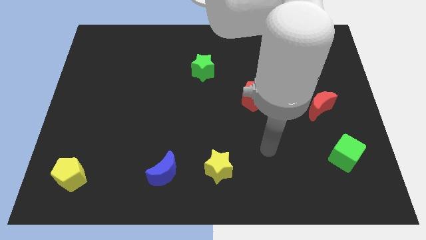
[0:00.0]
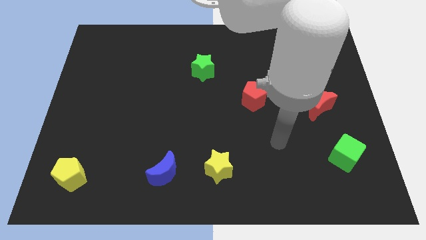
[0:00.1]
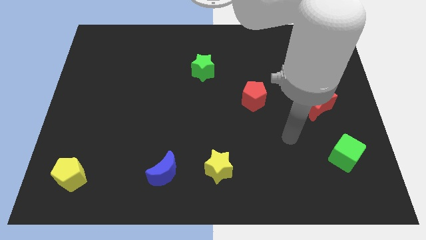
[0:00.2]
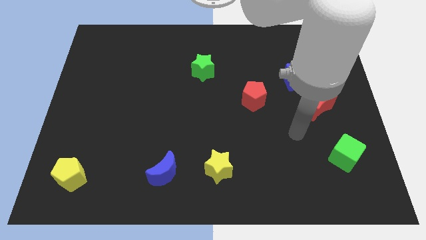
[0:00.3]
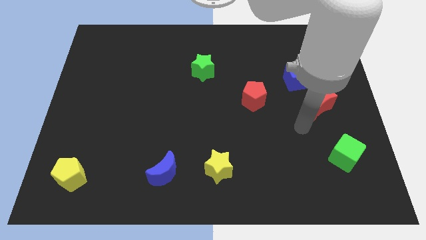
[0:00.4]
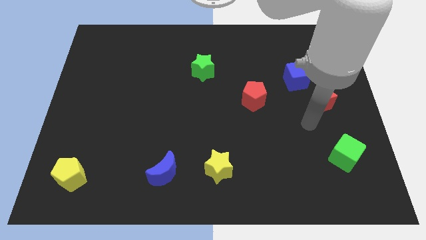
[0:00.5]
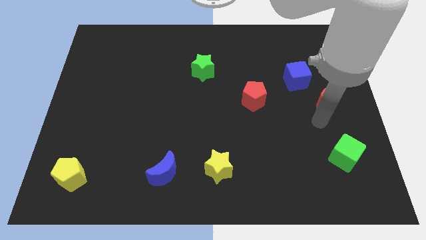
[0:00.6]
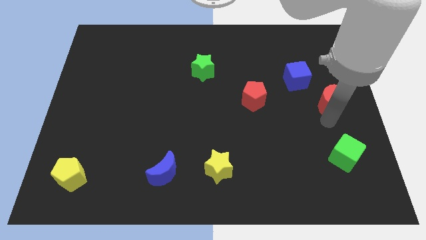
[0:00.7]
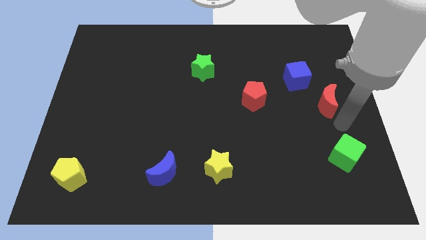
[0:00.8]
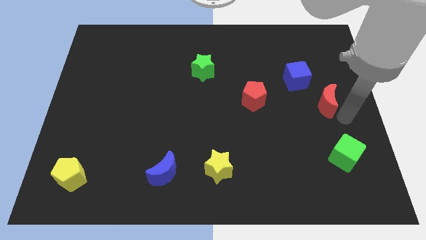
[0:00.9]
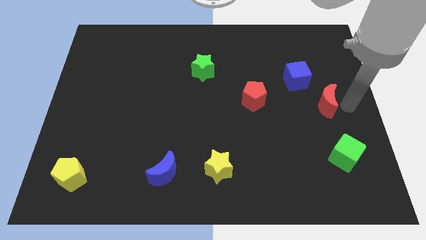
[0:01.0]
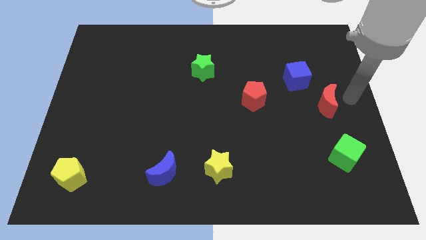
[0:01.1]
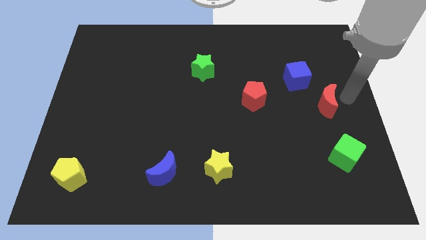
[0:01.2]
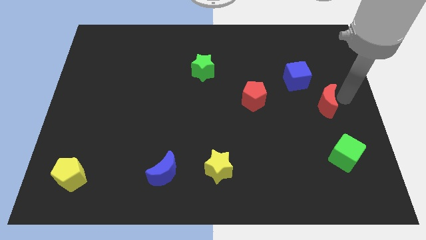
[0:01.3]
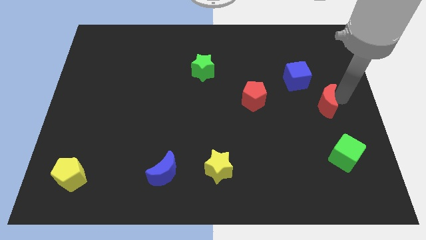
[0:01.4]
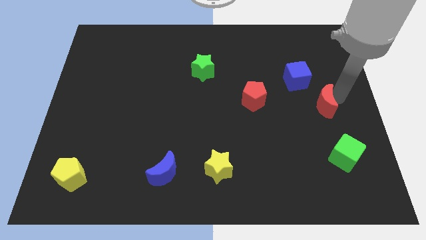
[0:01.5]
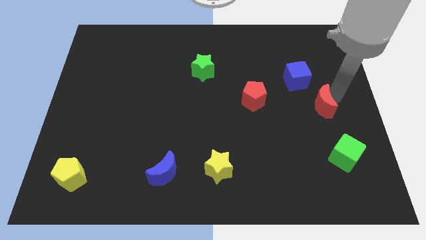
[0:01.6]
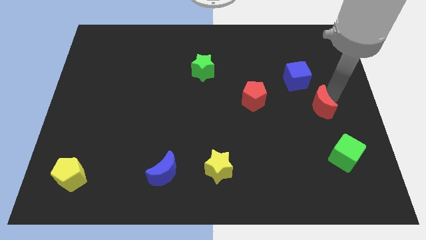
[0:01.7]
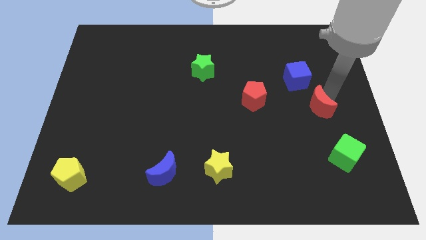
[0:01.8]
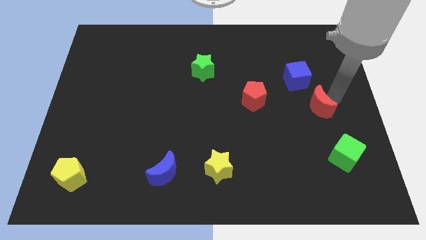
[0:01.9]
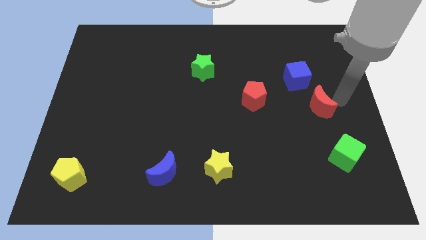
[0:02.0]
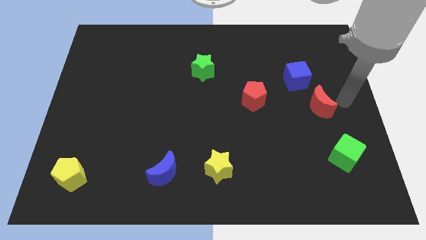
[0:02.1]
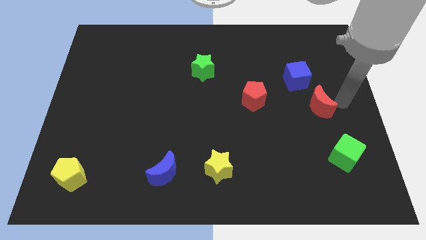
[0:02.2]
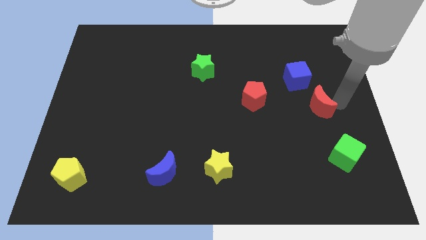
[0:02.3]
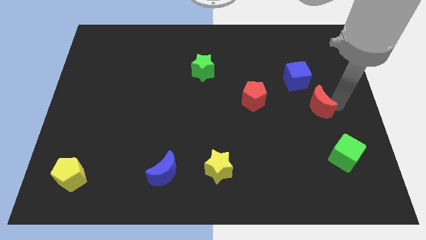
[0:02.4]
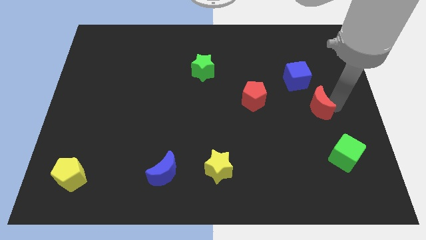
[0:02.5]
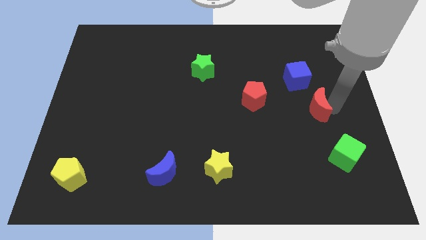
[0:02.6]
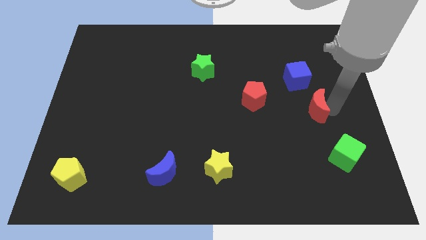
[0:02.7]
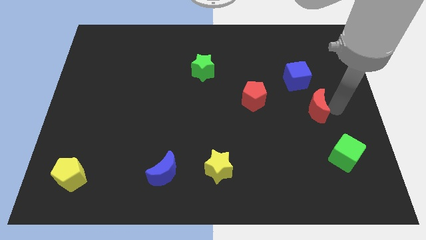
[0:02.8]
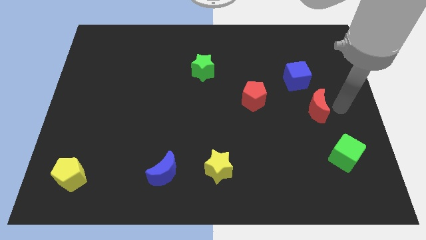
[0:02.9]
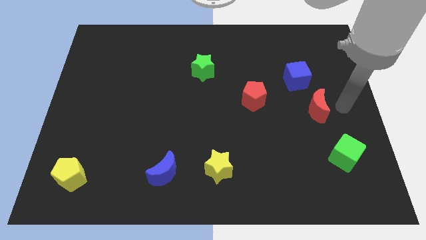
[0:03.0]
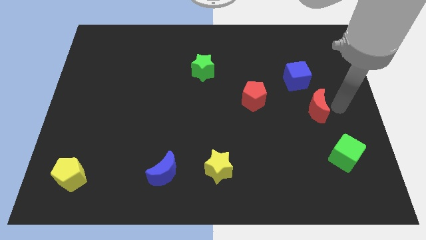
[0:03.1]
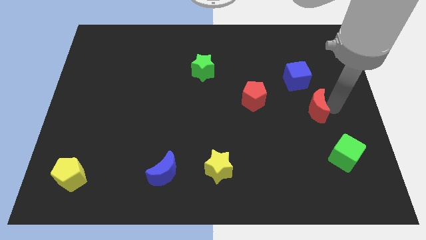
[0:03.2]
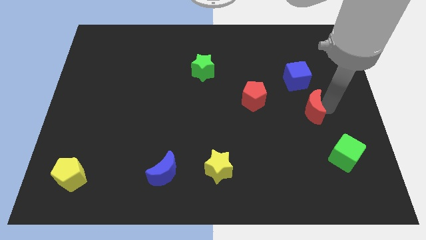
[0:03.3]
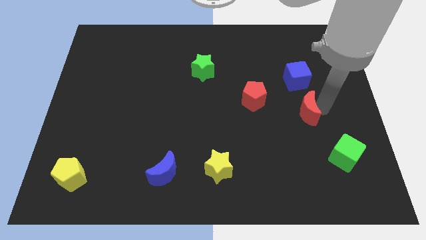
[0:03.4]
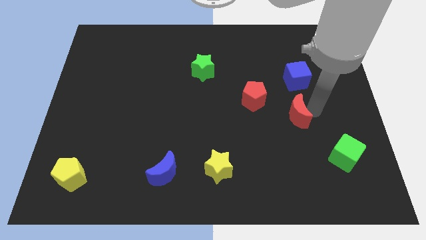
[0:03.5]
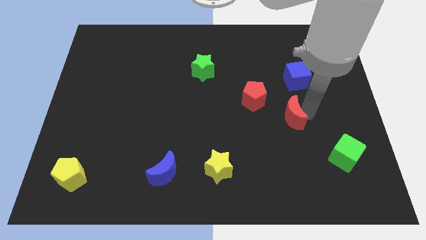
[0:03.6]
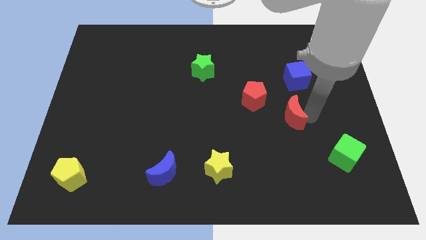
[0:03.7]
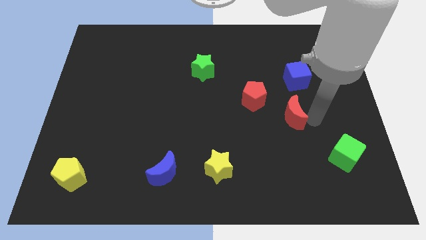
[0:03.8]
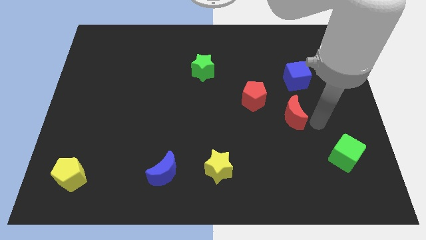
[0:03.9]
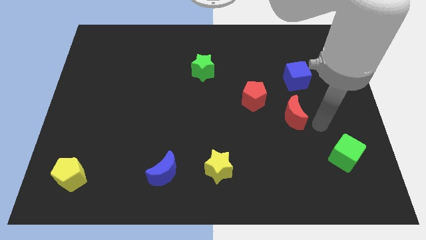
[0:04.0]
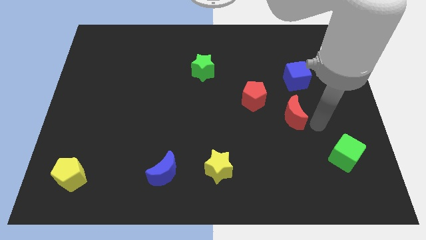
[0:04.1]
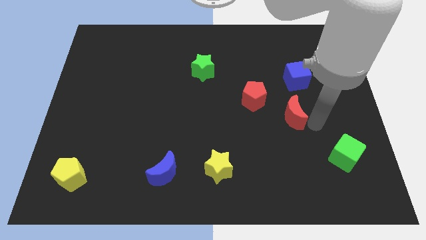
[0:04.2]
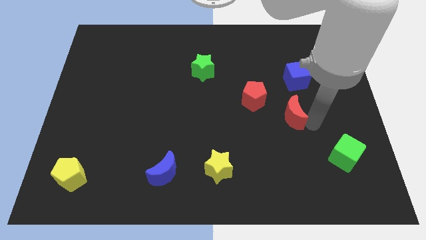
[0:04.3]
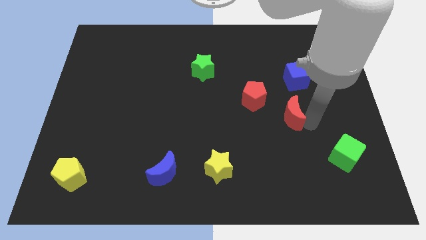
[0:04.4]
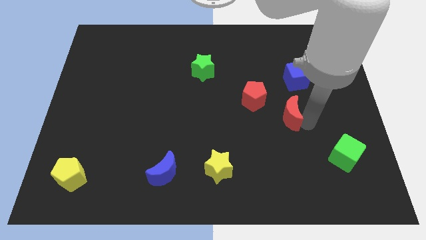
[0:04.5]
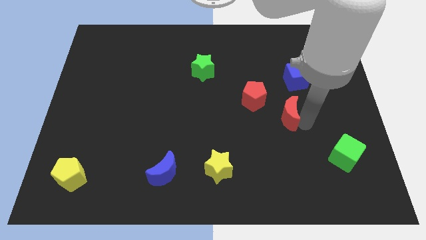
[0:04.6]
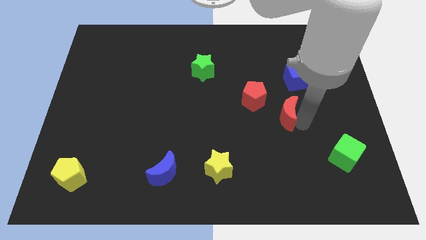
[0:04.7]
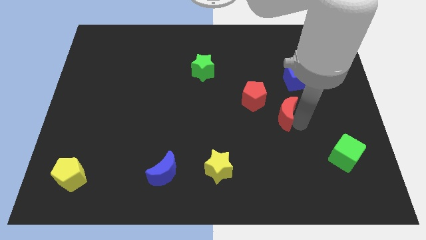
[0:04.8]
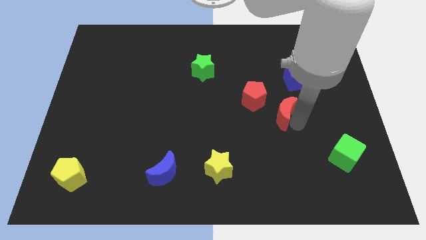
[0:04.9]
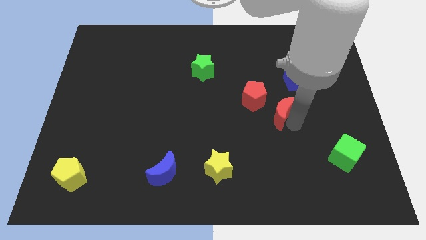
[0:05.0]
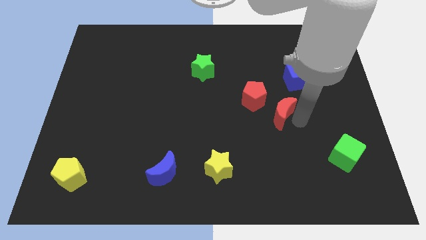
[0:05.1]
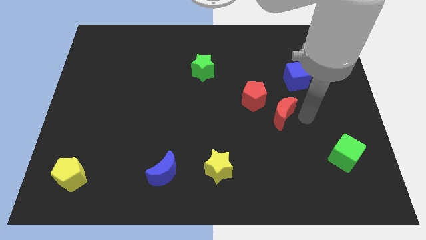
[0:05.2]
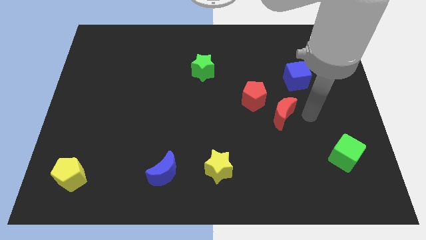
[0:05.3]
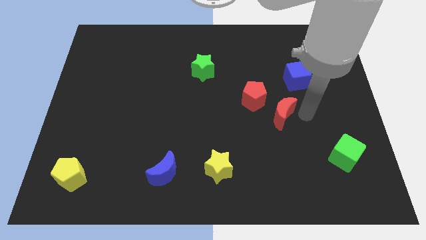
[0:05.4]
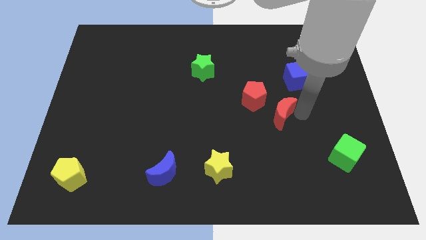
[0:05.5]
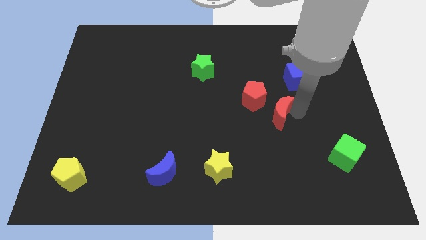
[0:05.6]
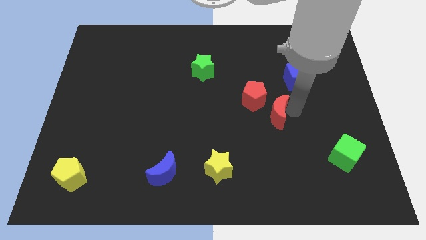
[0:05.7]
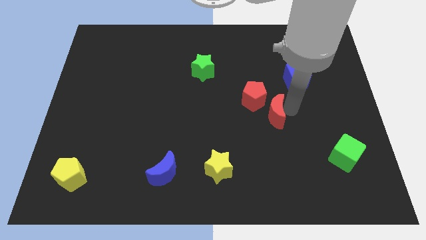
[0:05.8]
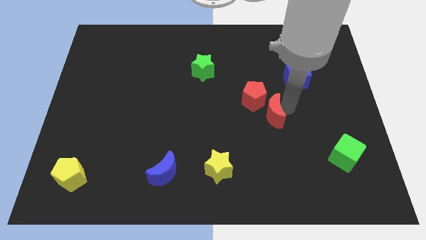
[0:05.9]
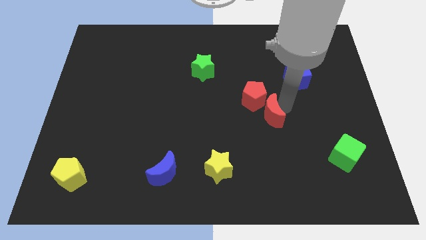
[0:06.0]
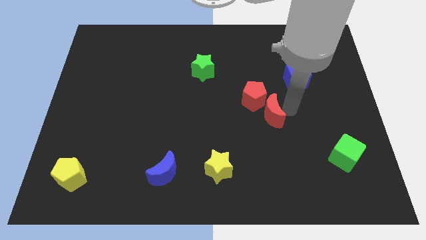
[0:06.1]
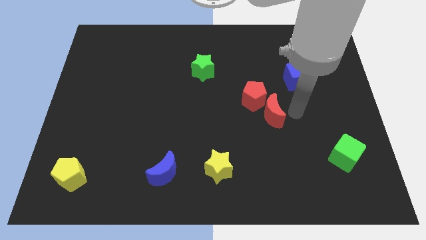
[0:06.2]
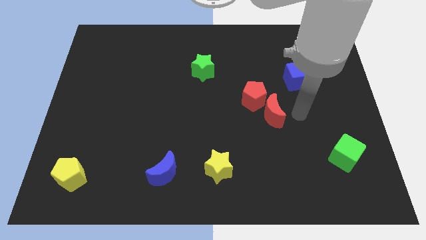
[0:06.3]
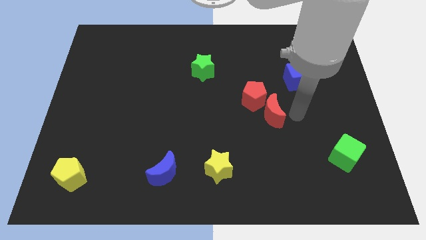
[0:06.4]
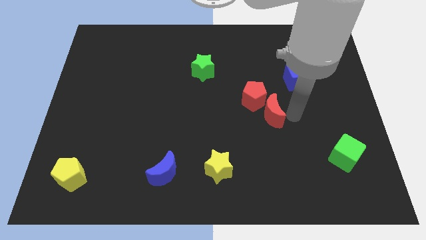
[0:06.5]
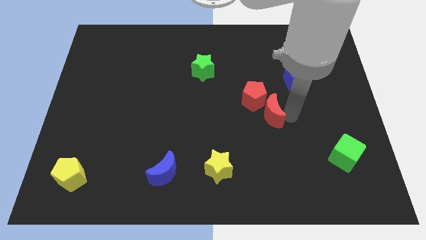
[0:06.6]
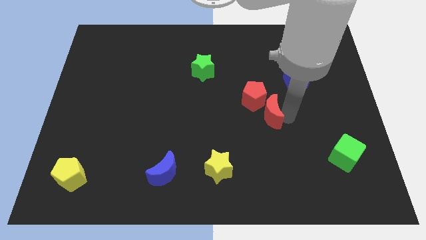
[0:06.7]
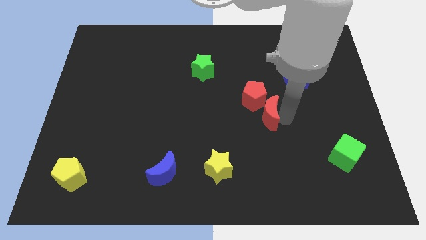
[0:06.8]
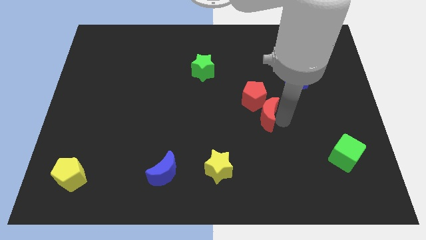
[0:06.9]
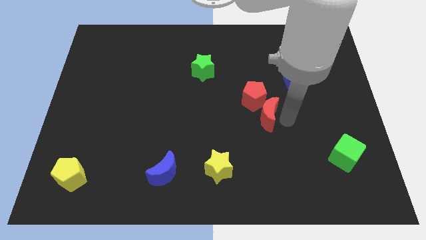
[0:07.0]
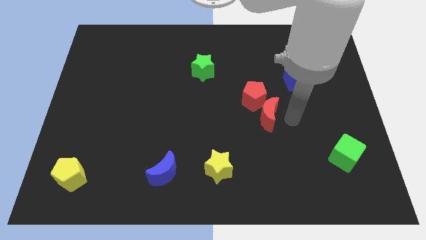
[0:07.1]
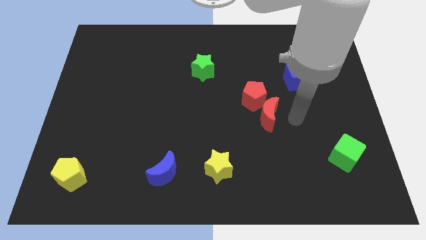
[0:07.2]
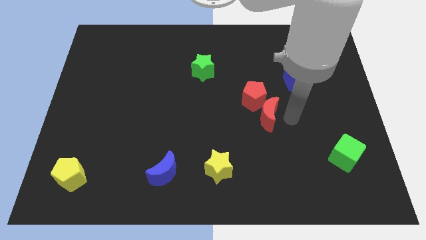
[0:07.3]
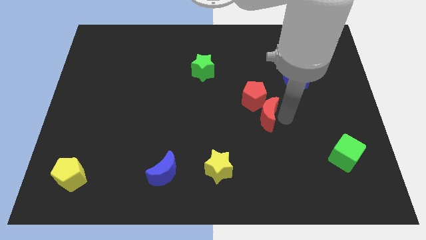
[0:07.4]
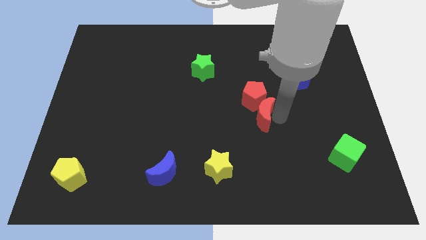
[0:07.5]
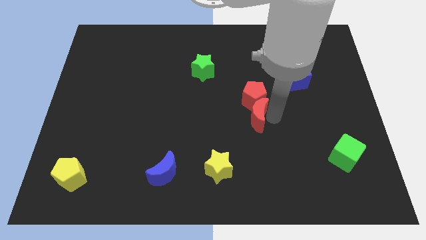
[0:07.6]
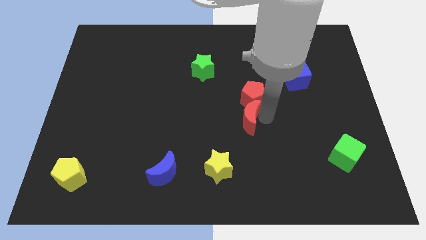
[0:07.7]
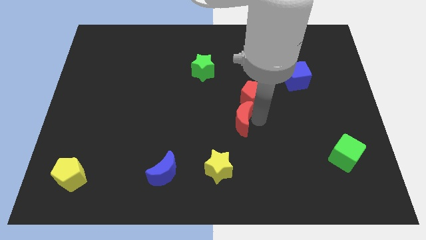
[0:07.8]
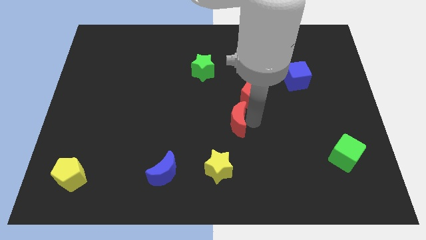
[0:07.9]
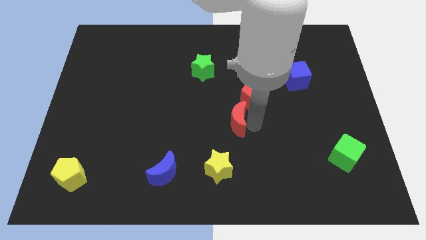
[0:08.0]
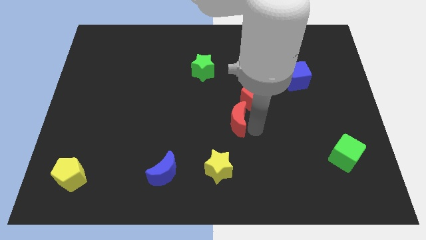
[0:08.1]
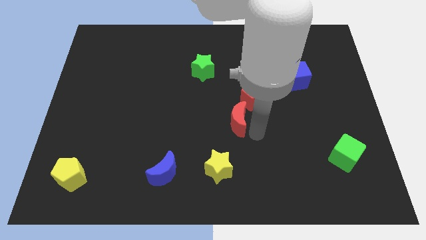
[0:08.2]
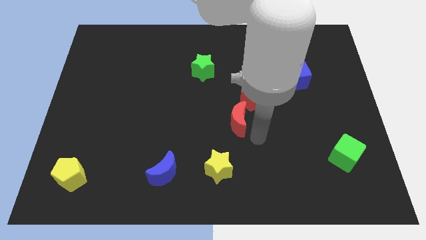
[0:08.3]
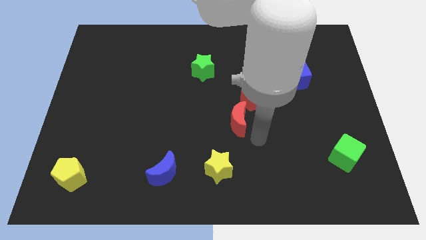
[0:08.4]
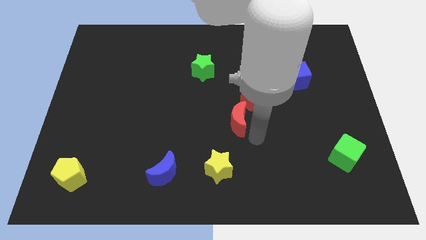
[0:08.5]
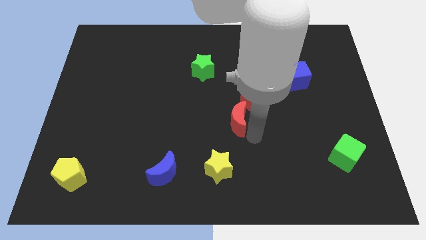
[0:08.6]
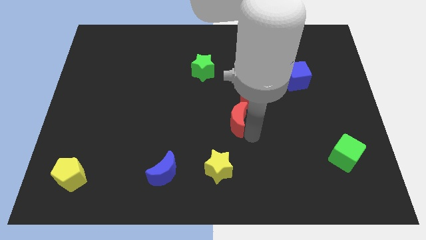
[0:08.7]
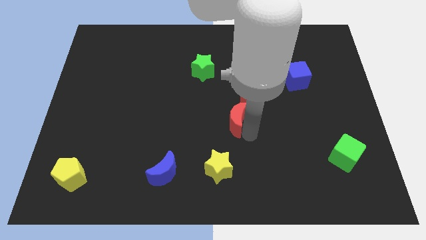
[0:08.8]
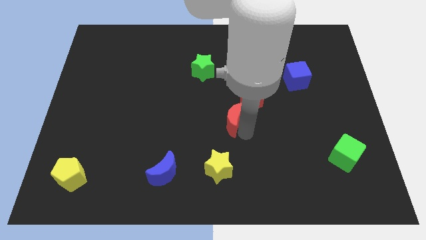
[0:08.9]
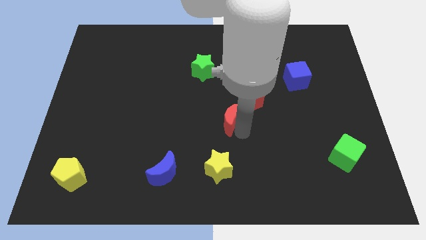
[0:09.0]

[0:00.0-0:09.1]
move the red moon to the left
